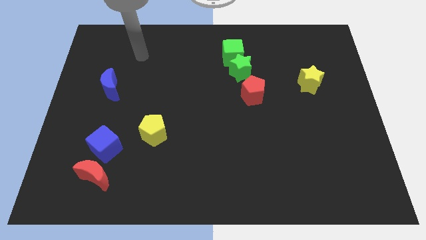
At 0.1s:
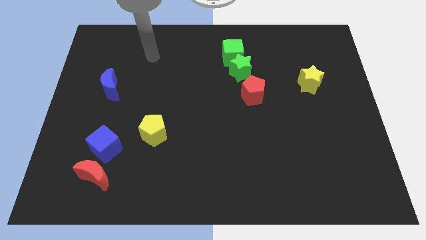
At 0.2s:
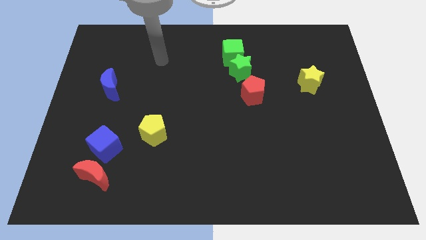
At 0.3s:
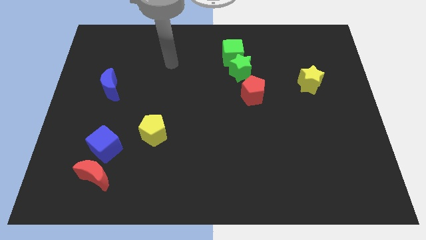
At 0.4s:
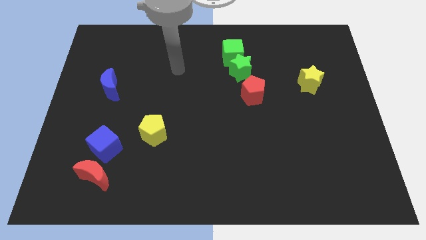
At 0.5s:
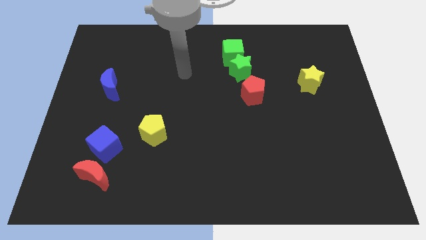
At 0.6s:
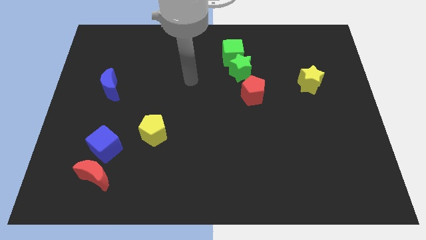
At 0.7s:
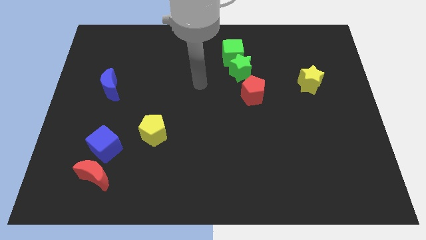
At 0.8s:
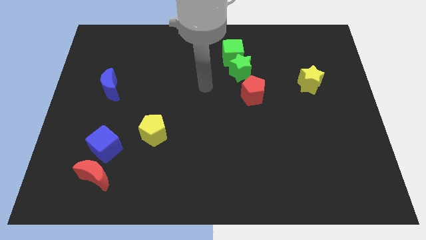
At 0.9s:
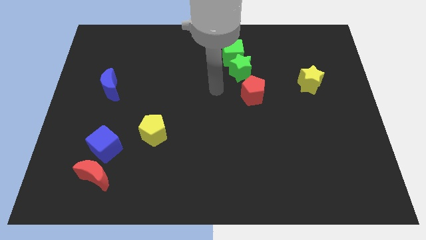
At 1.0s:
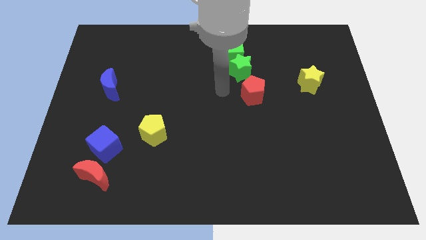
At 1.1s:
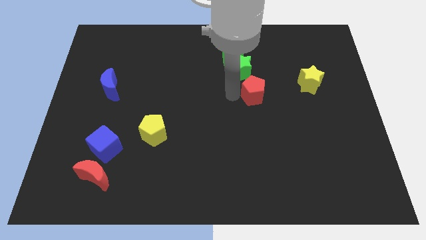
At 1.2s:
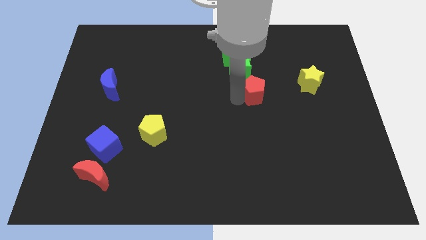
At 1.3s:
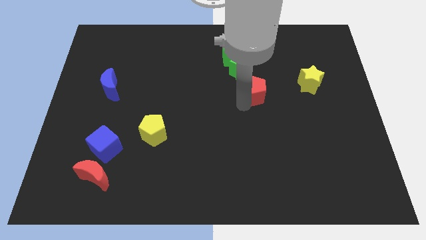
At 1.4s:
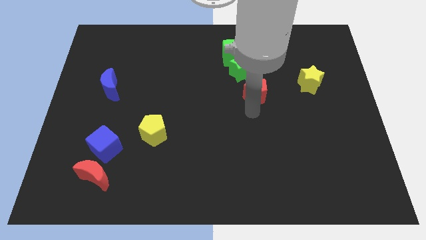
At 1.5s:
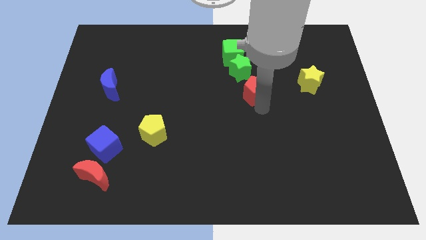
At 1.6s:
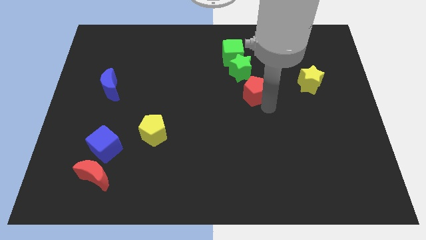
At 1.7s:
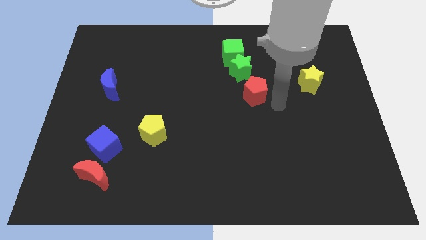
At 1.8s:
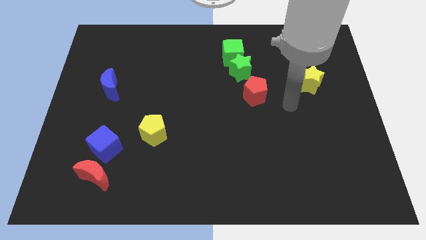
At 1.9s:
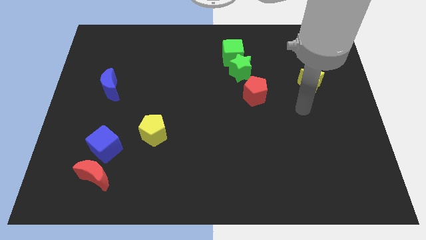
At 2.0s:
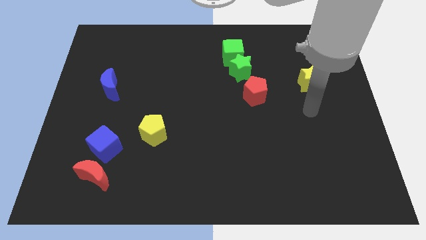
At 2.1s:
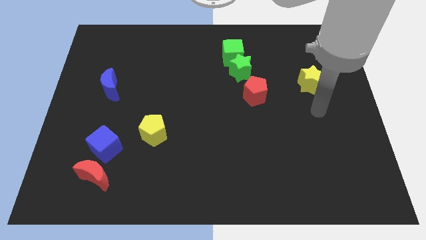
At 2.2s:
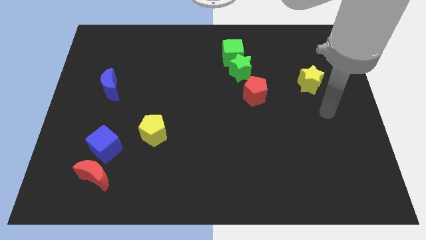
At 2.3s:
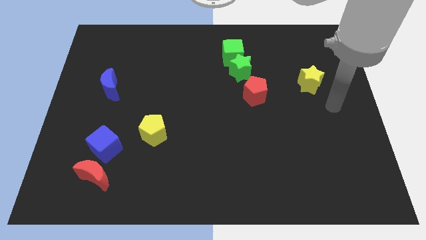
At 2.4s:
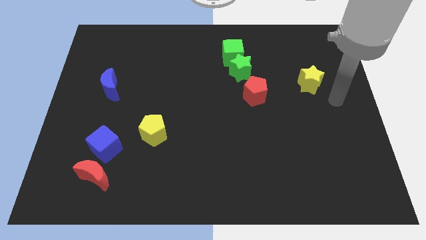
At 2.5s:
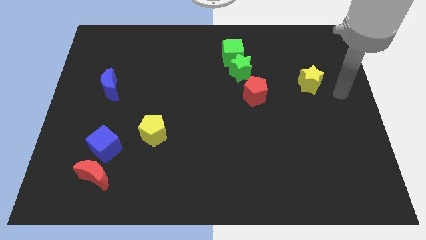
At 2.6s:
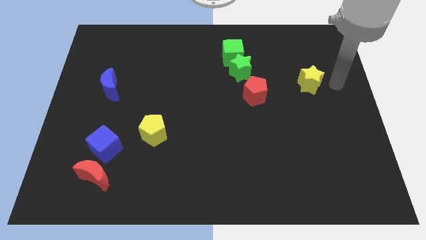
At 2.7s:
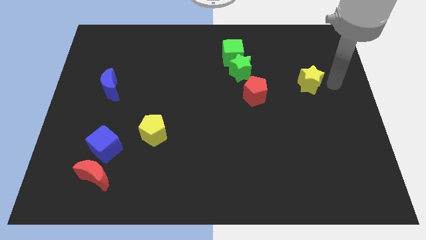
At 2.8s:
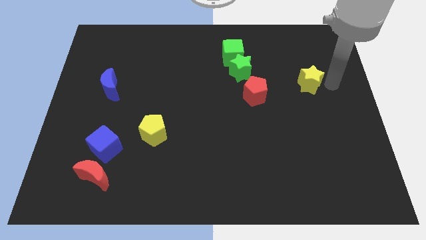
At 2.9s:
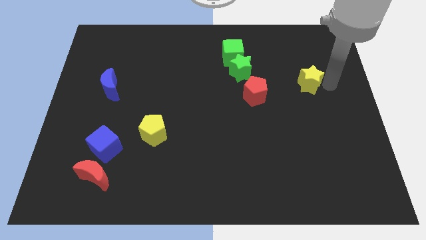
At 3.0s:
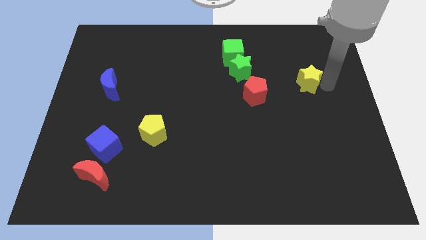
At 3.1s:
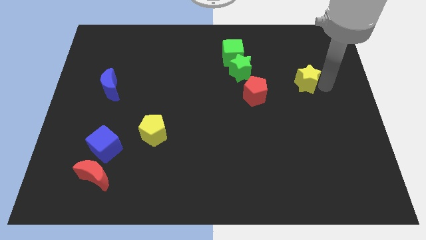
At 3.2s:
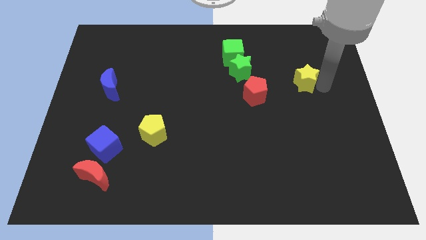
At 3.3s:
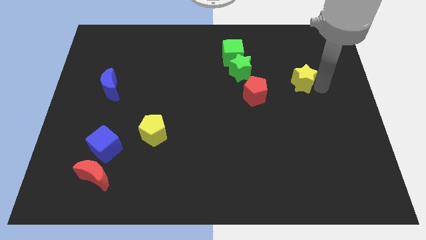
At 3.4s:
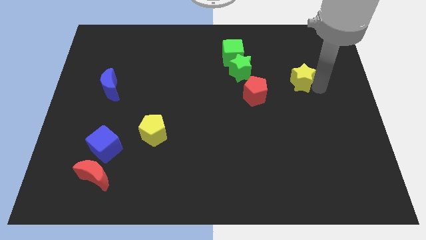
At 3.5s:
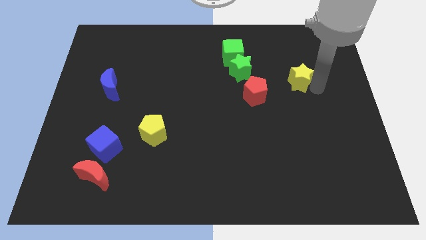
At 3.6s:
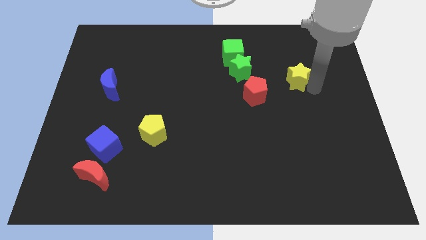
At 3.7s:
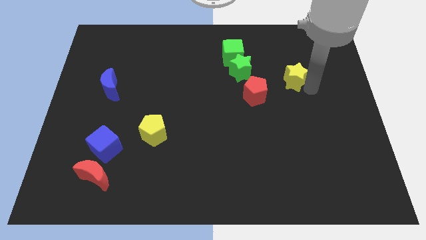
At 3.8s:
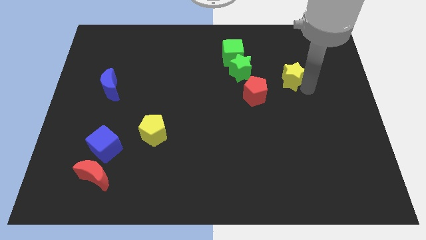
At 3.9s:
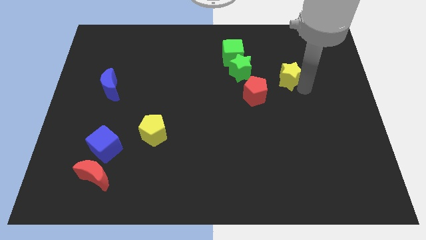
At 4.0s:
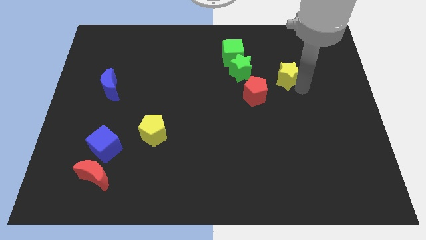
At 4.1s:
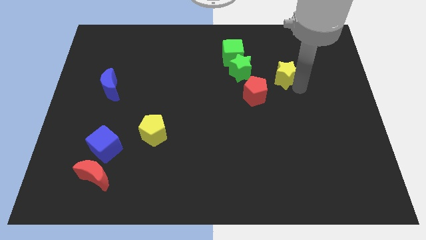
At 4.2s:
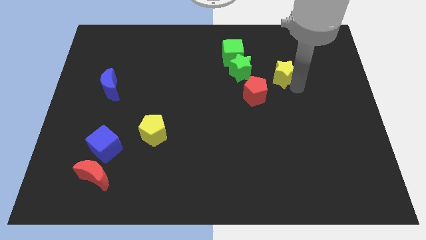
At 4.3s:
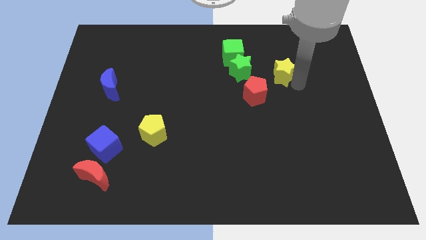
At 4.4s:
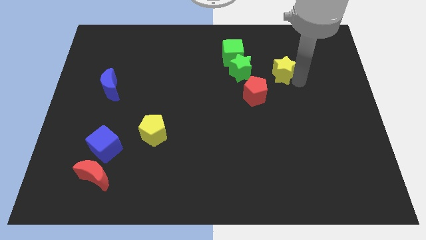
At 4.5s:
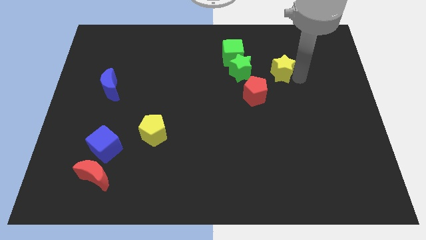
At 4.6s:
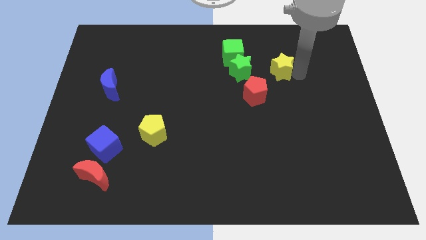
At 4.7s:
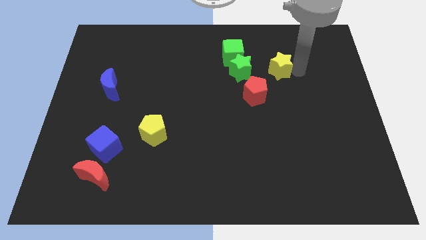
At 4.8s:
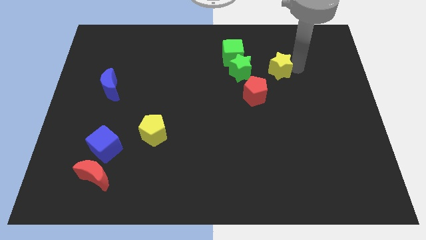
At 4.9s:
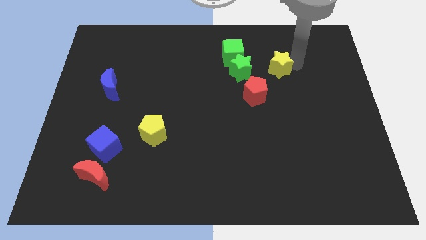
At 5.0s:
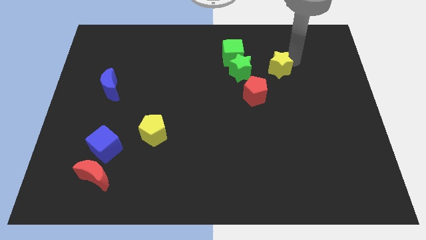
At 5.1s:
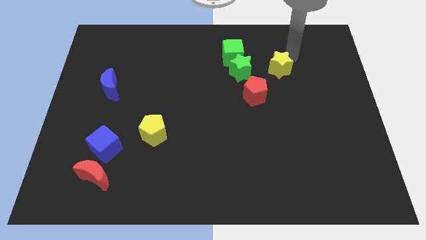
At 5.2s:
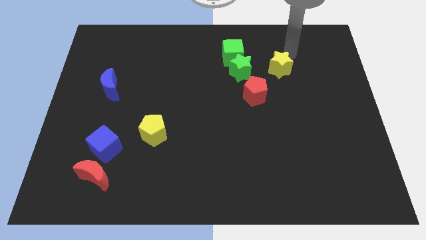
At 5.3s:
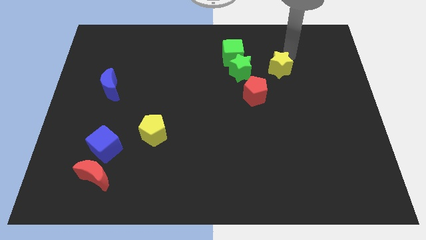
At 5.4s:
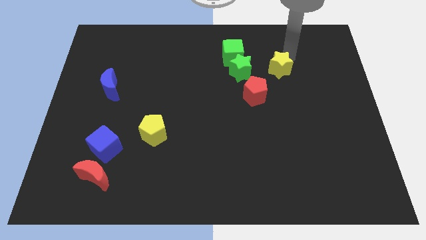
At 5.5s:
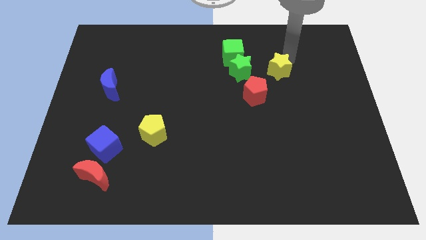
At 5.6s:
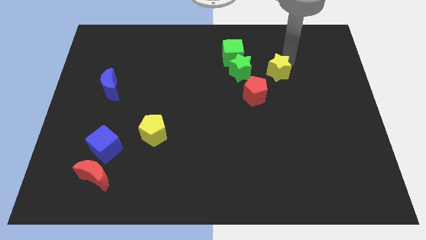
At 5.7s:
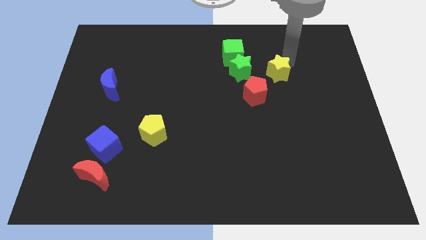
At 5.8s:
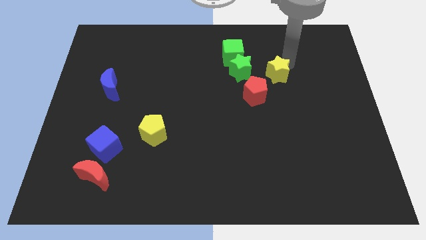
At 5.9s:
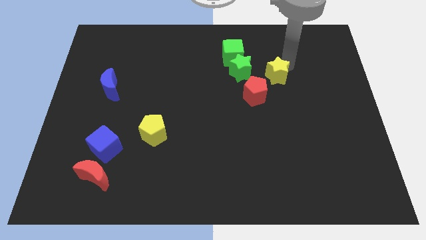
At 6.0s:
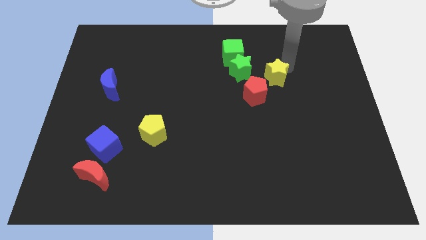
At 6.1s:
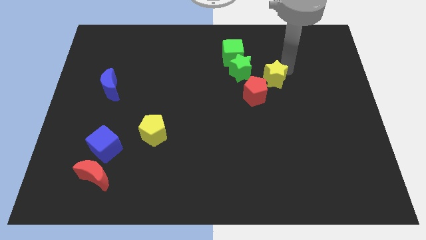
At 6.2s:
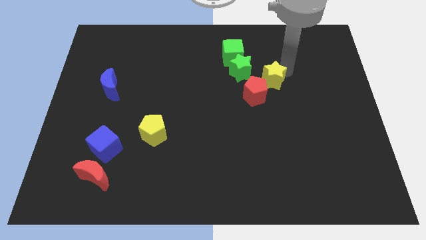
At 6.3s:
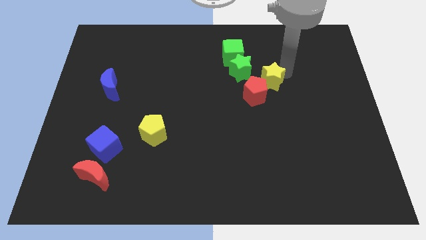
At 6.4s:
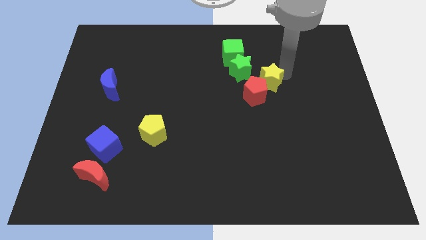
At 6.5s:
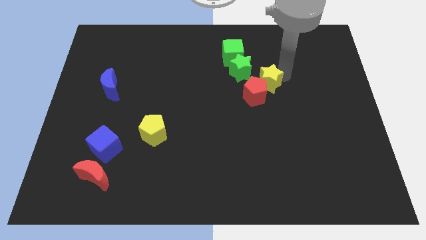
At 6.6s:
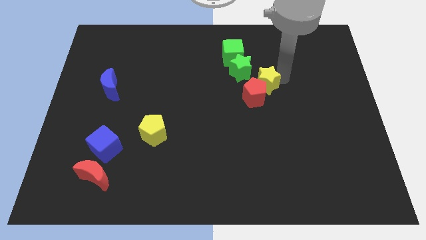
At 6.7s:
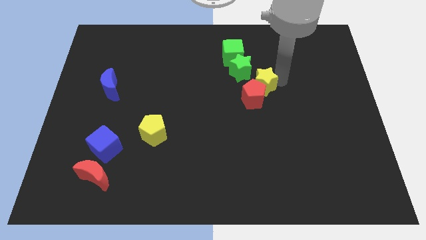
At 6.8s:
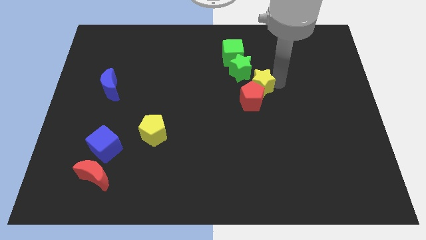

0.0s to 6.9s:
push the yellow star to the center
